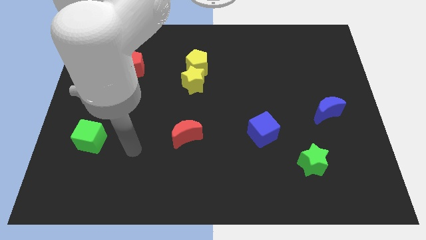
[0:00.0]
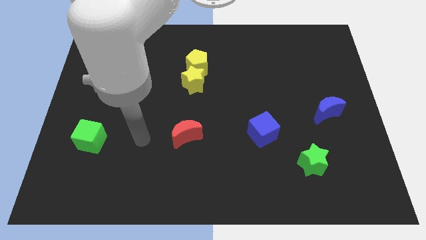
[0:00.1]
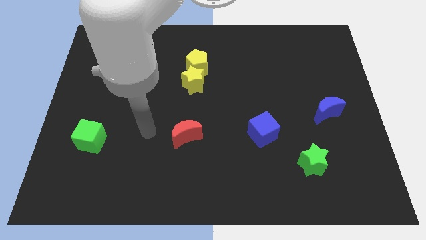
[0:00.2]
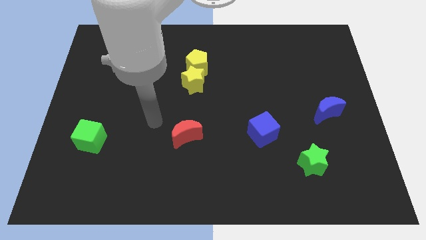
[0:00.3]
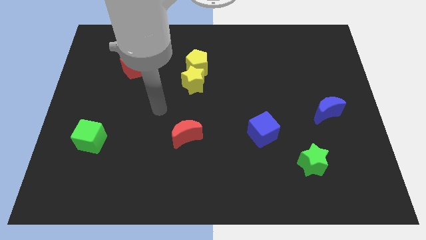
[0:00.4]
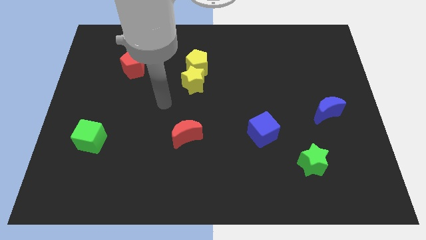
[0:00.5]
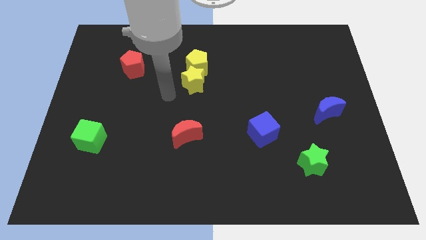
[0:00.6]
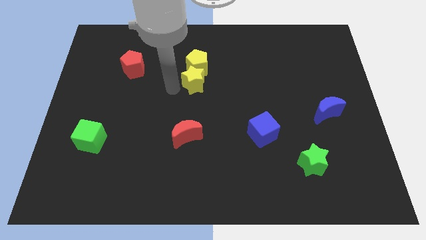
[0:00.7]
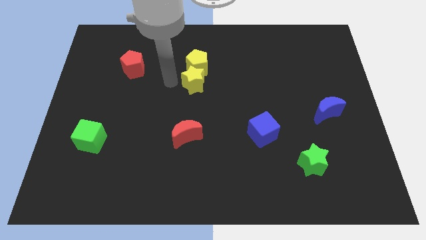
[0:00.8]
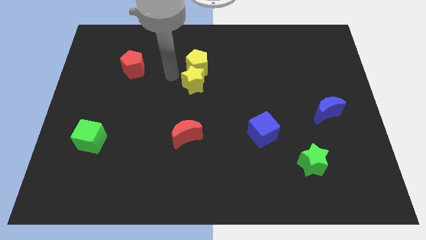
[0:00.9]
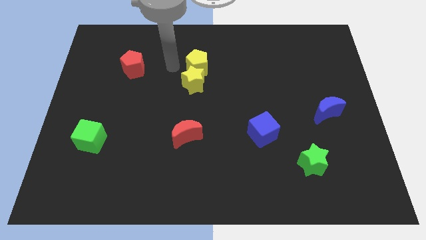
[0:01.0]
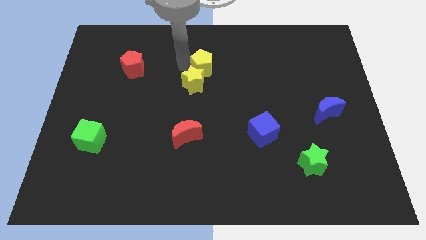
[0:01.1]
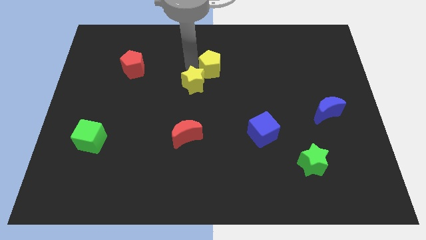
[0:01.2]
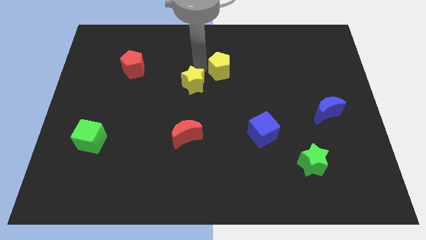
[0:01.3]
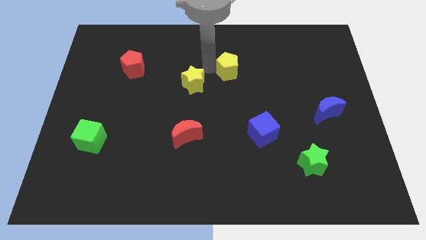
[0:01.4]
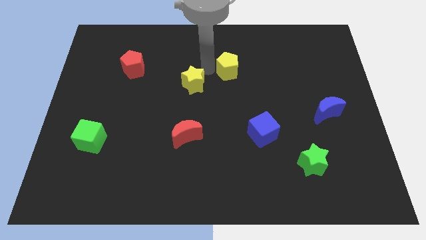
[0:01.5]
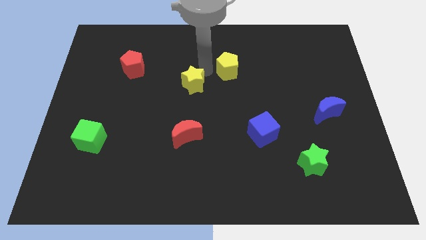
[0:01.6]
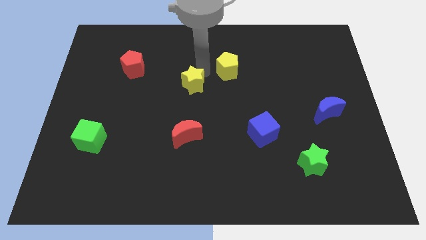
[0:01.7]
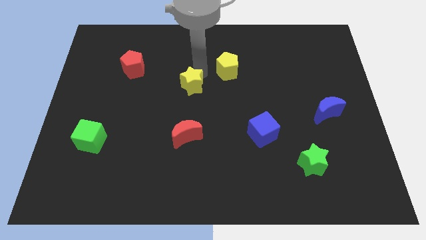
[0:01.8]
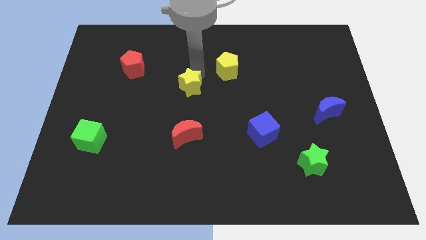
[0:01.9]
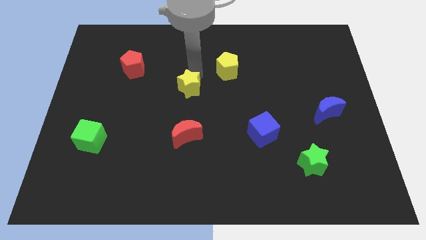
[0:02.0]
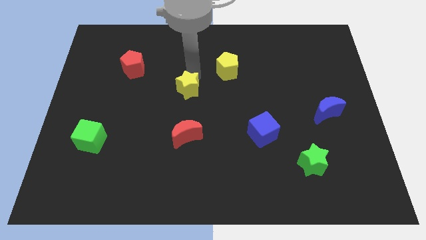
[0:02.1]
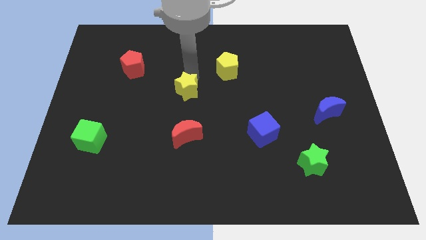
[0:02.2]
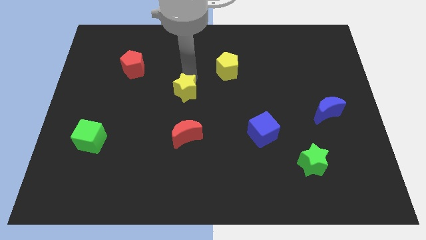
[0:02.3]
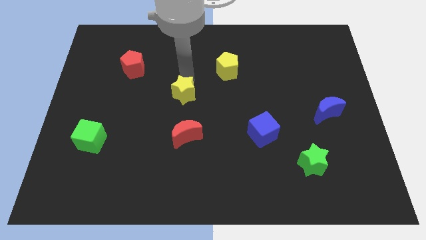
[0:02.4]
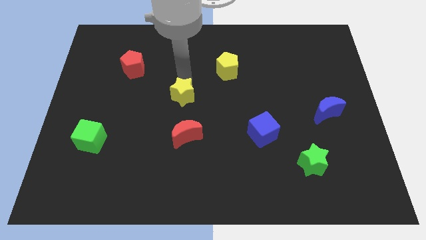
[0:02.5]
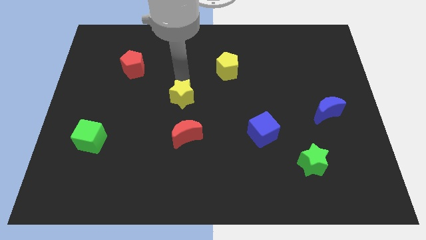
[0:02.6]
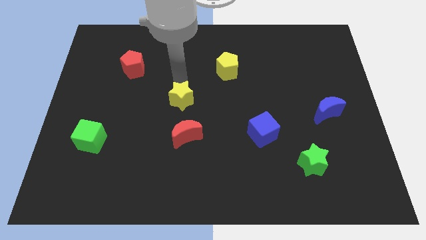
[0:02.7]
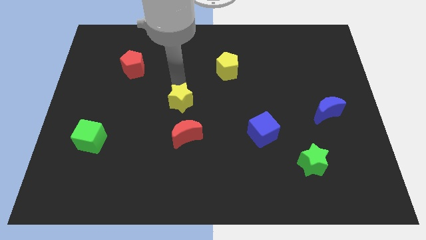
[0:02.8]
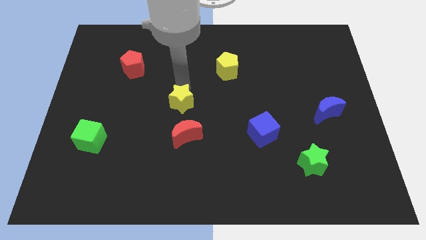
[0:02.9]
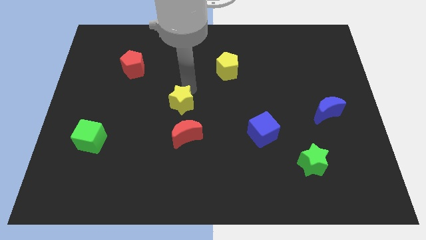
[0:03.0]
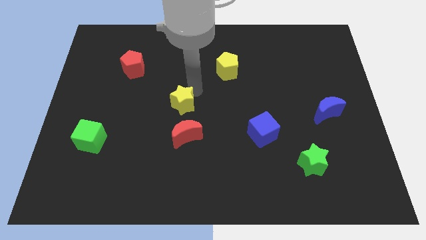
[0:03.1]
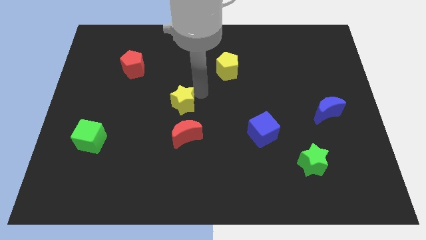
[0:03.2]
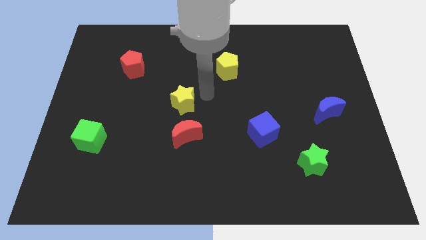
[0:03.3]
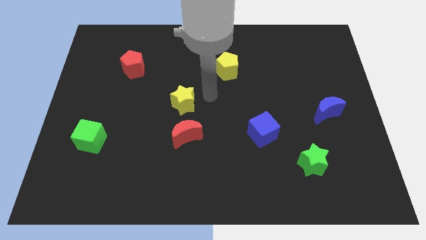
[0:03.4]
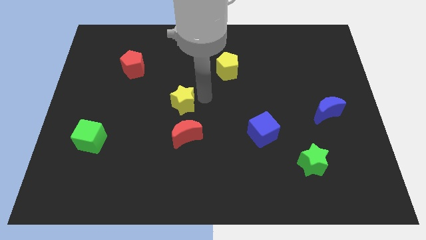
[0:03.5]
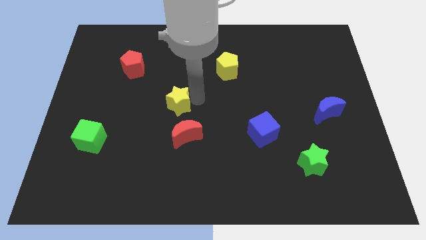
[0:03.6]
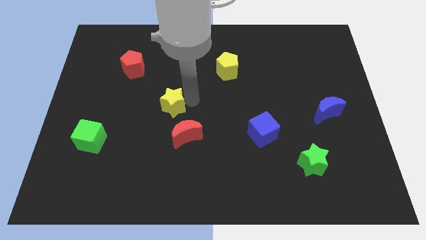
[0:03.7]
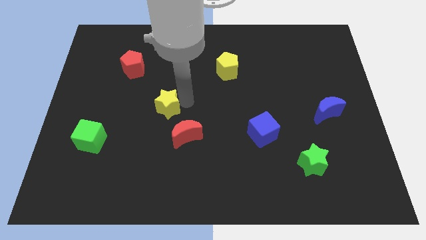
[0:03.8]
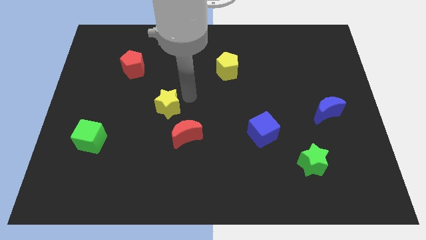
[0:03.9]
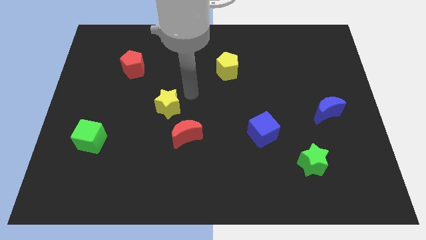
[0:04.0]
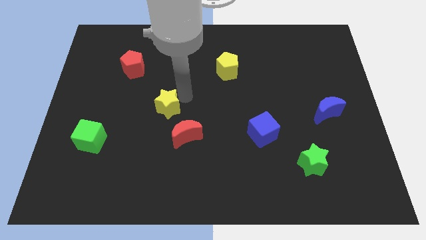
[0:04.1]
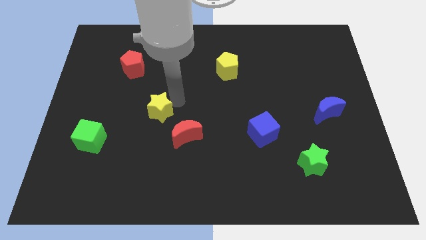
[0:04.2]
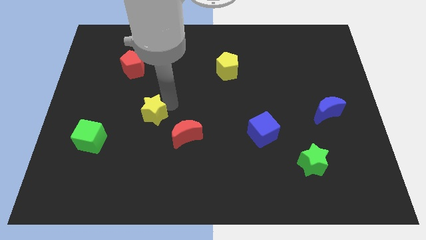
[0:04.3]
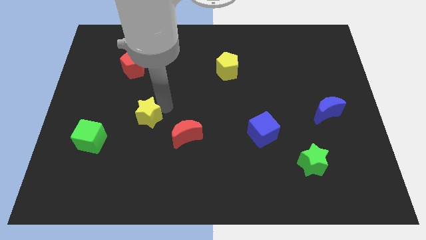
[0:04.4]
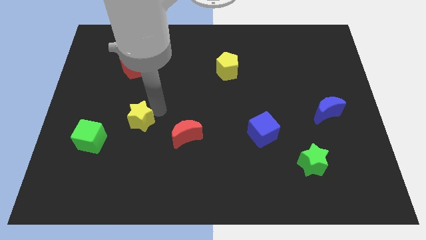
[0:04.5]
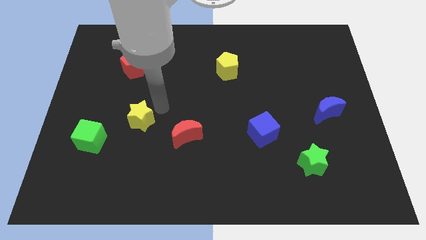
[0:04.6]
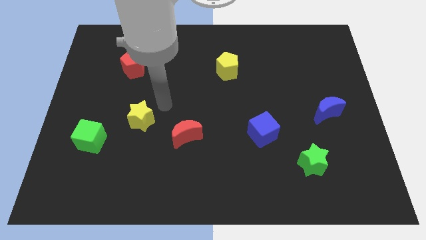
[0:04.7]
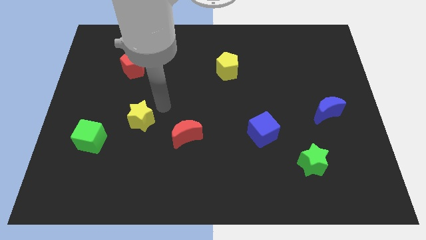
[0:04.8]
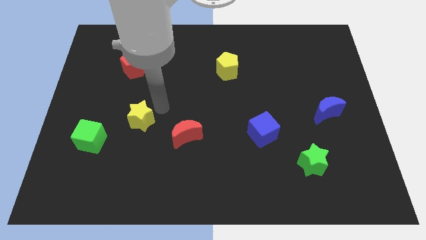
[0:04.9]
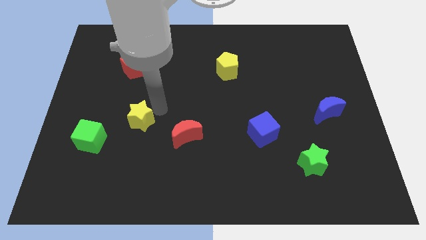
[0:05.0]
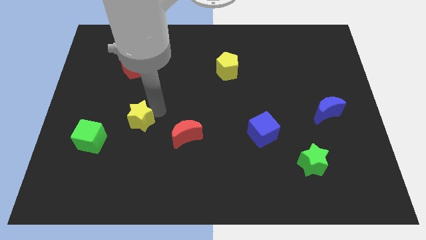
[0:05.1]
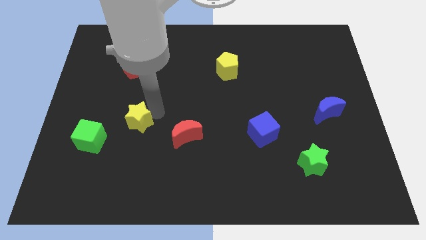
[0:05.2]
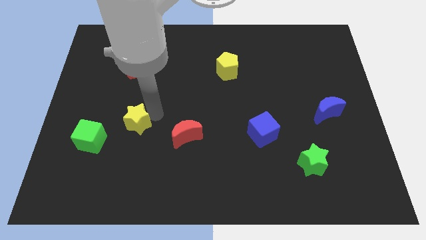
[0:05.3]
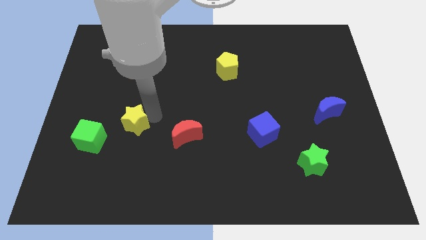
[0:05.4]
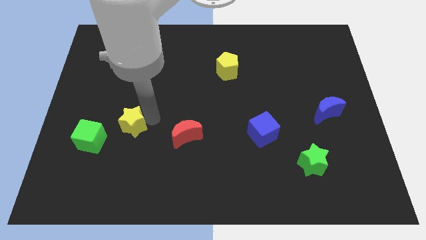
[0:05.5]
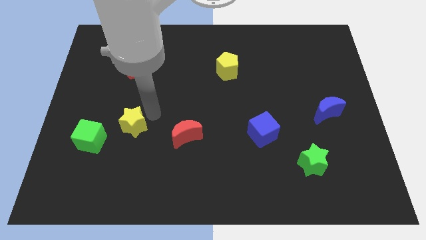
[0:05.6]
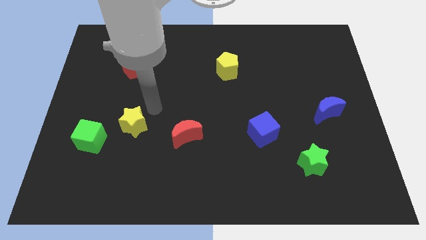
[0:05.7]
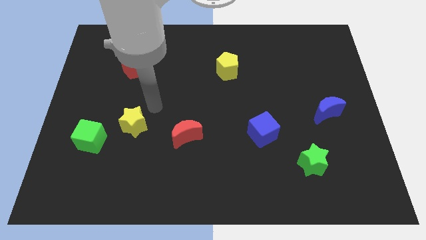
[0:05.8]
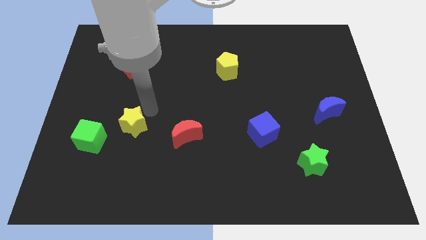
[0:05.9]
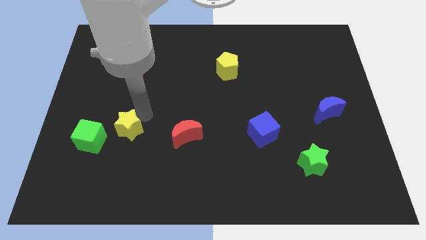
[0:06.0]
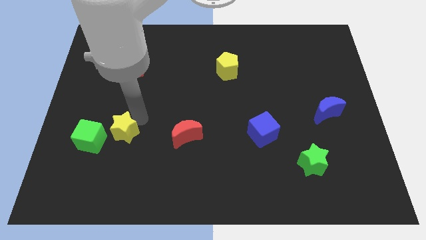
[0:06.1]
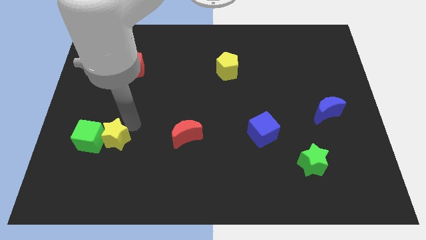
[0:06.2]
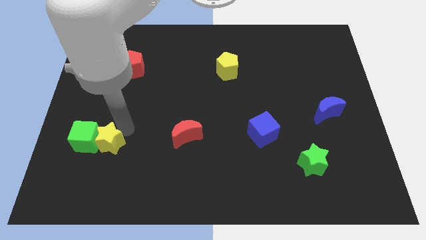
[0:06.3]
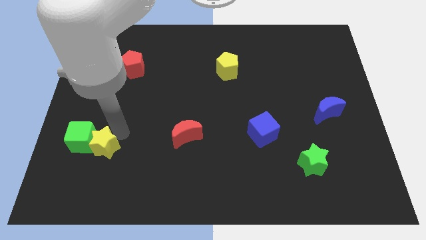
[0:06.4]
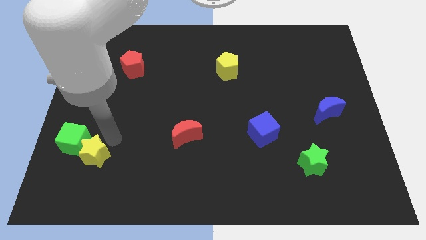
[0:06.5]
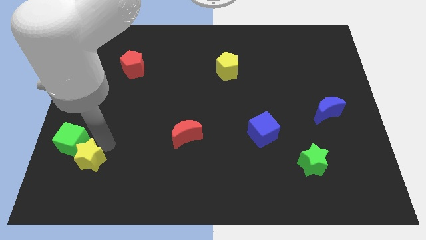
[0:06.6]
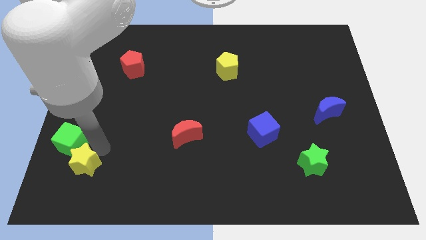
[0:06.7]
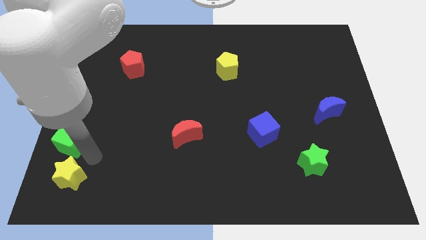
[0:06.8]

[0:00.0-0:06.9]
put the yellow star to the bottom left corner

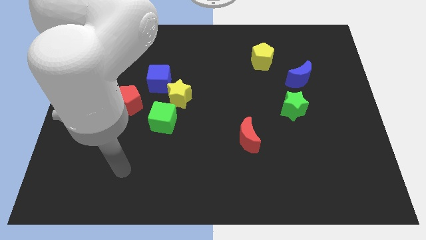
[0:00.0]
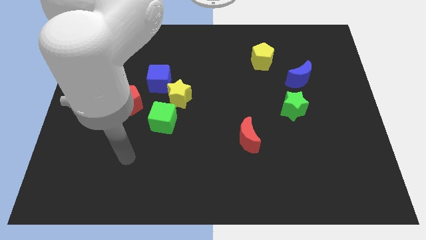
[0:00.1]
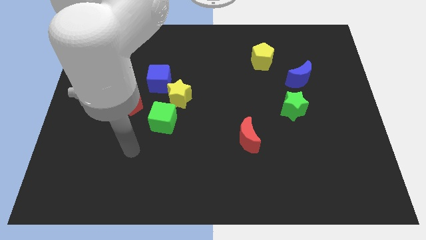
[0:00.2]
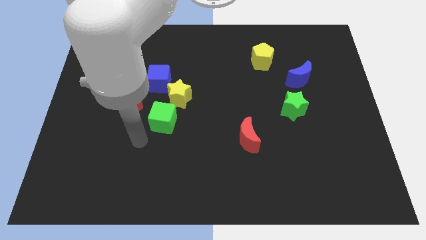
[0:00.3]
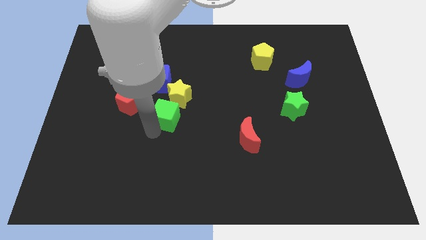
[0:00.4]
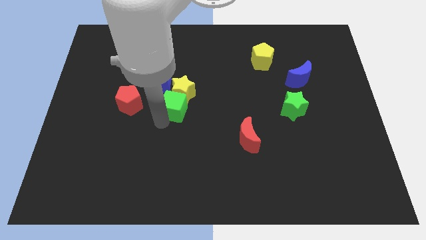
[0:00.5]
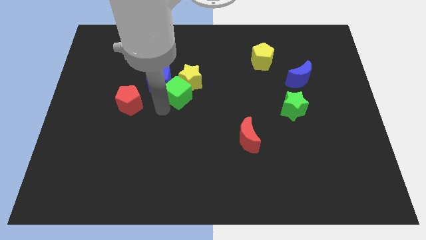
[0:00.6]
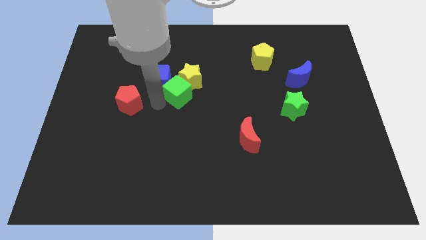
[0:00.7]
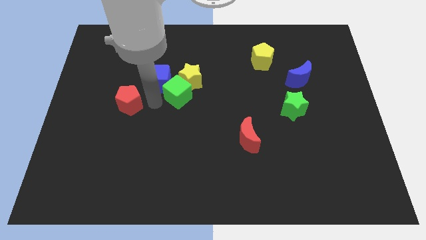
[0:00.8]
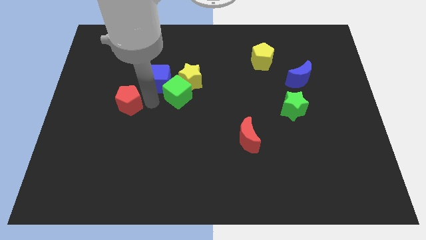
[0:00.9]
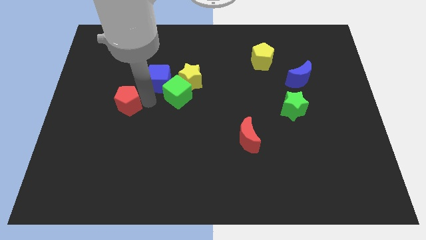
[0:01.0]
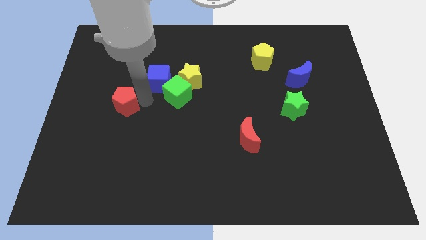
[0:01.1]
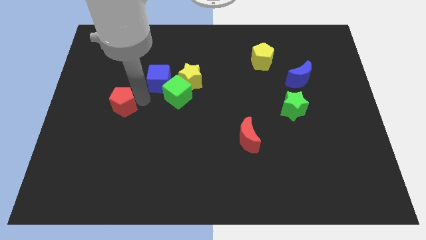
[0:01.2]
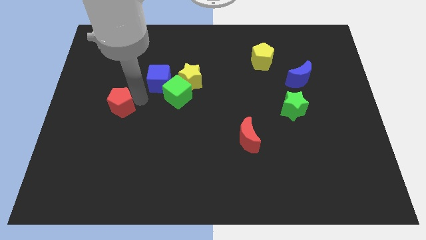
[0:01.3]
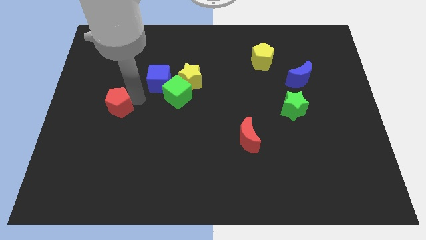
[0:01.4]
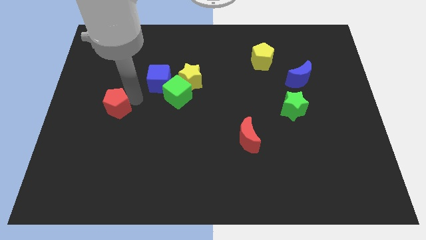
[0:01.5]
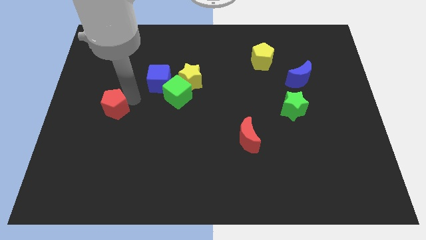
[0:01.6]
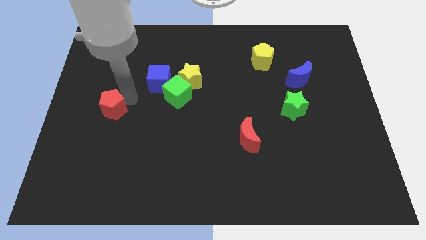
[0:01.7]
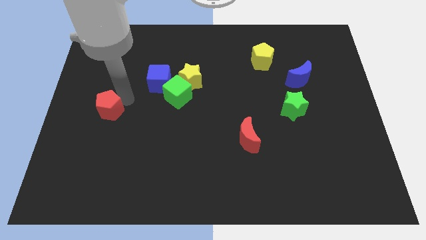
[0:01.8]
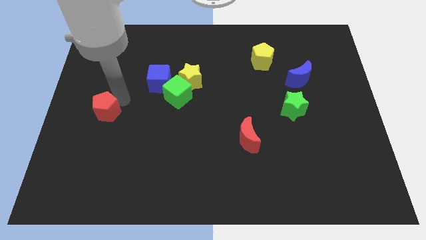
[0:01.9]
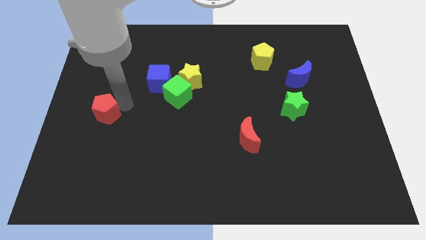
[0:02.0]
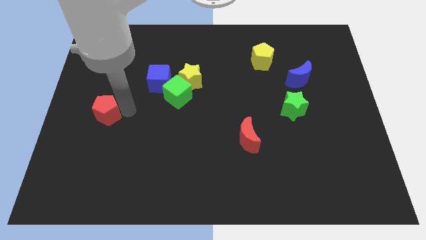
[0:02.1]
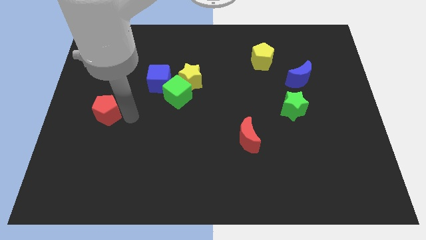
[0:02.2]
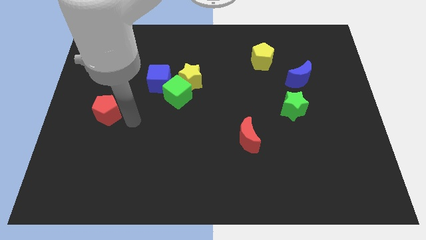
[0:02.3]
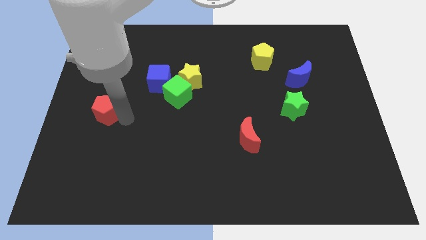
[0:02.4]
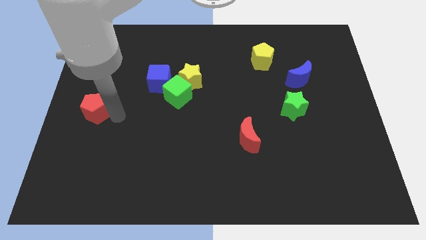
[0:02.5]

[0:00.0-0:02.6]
move the red pentagon to the center left
